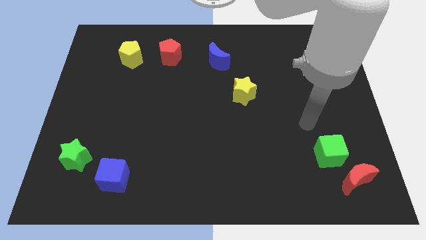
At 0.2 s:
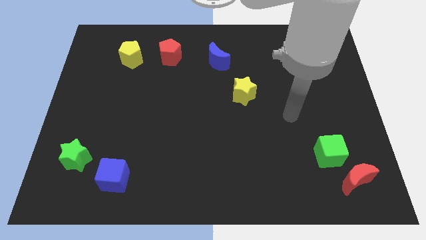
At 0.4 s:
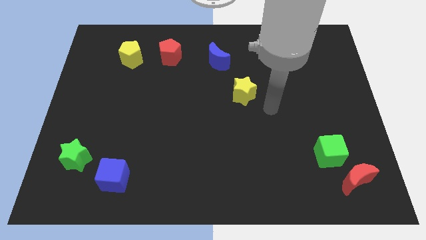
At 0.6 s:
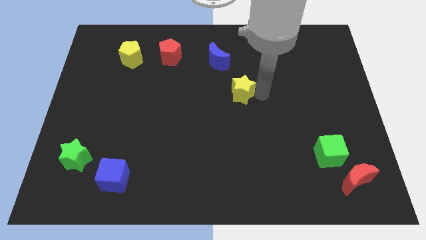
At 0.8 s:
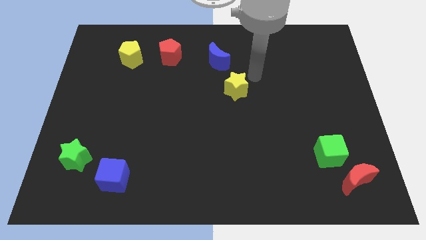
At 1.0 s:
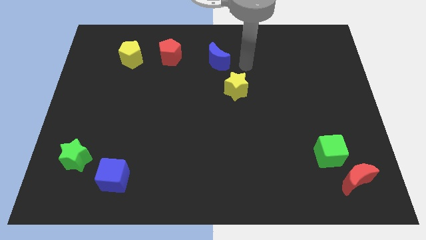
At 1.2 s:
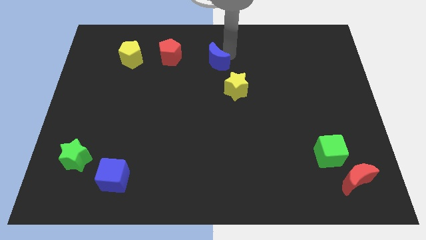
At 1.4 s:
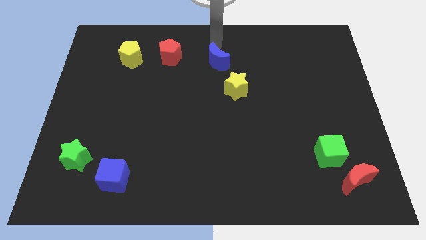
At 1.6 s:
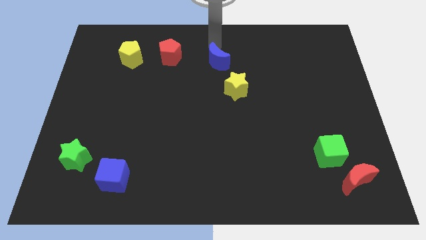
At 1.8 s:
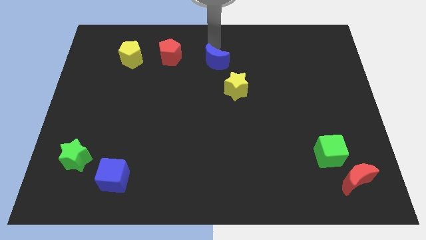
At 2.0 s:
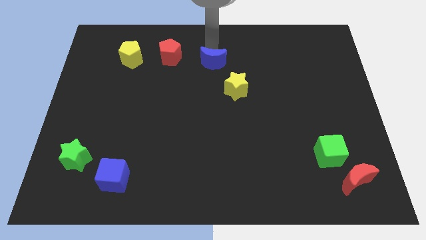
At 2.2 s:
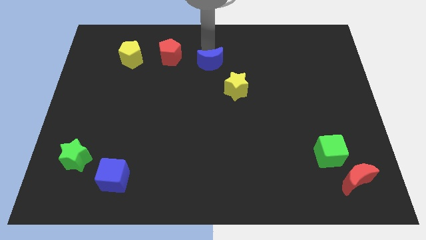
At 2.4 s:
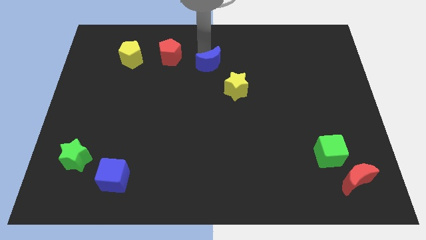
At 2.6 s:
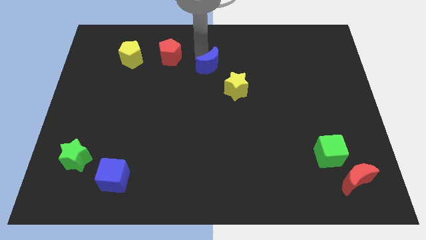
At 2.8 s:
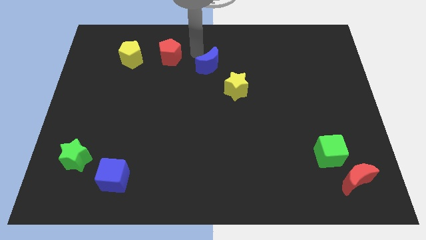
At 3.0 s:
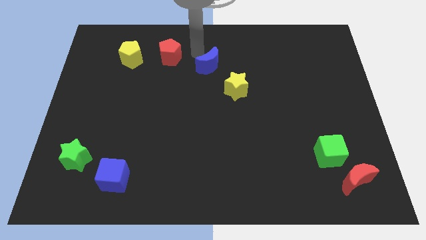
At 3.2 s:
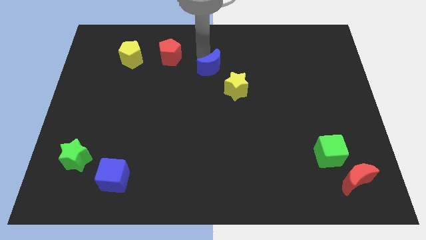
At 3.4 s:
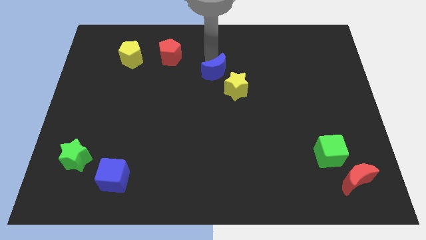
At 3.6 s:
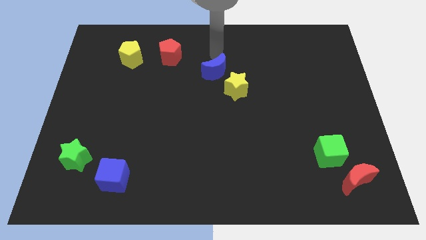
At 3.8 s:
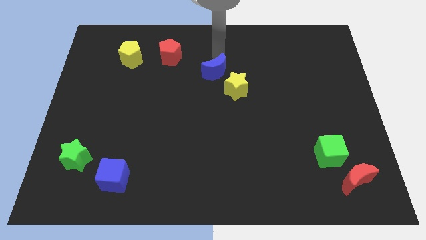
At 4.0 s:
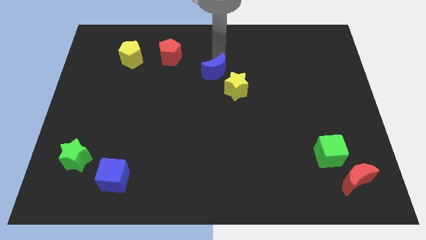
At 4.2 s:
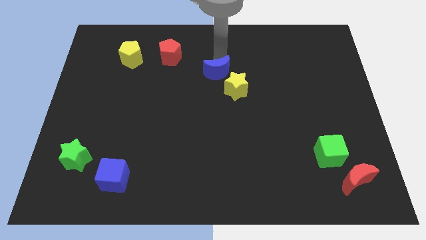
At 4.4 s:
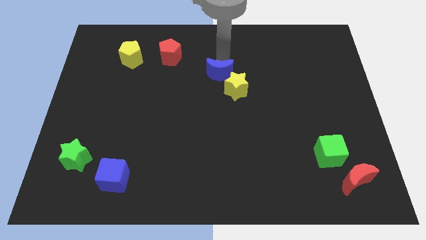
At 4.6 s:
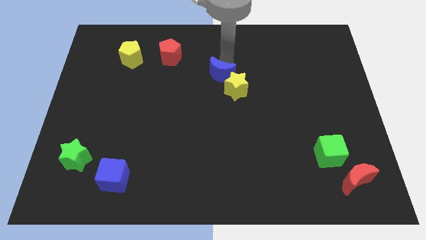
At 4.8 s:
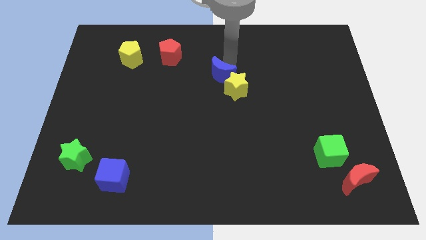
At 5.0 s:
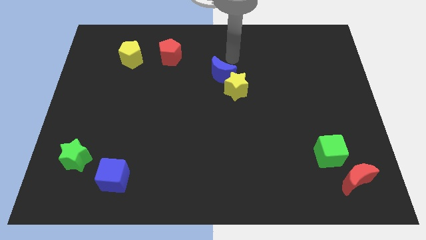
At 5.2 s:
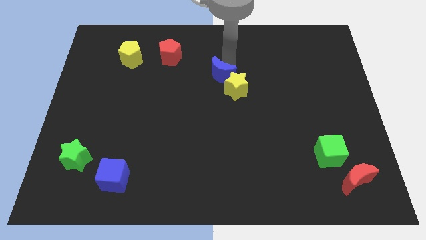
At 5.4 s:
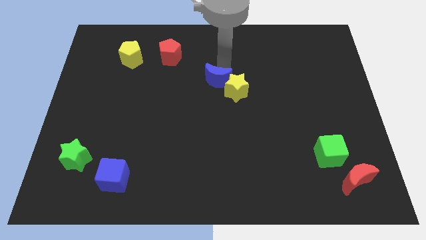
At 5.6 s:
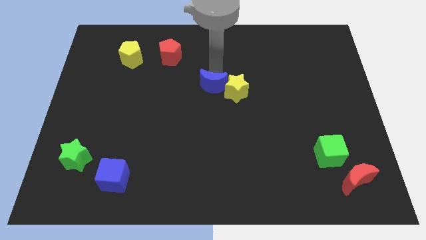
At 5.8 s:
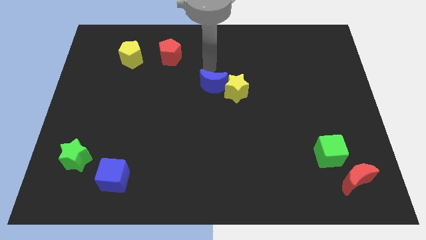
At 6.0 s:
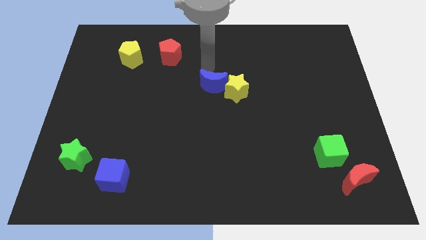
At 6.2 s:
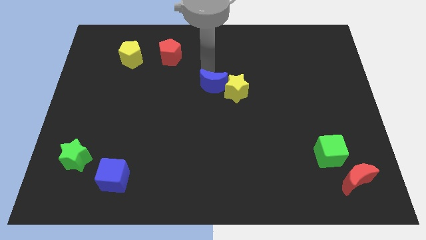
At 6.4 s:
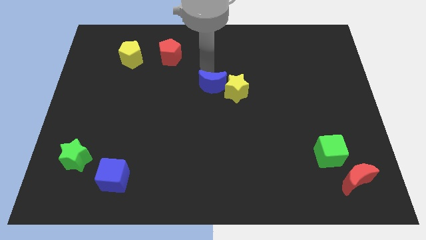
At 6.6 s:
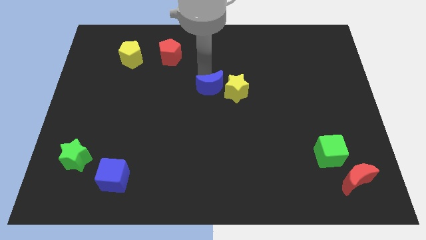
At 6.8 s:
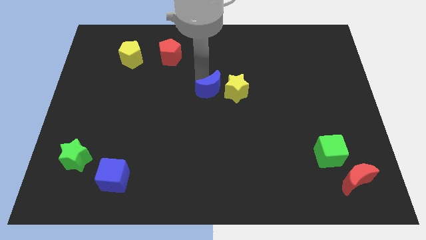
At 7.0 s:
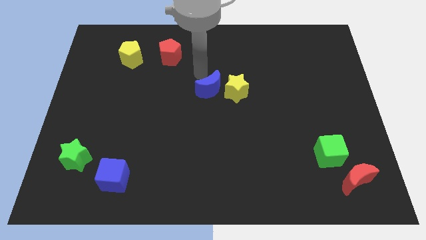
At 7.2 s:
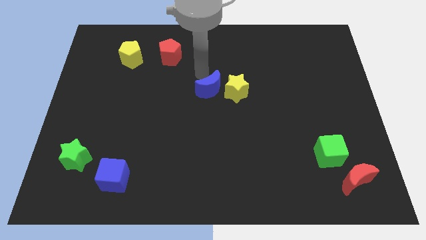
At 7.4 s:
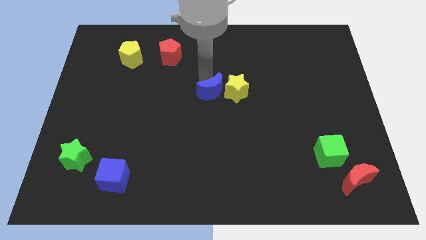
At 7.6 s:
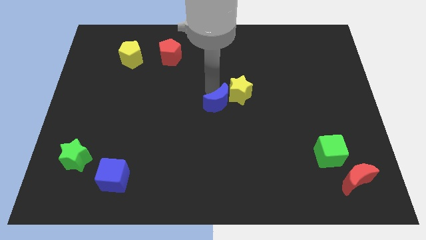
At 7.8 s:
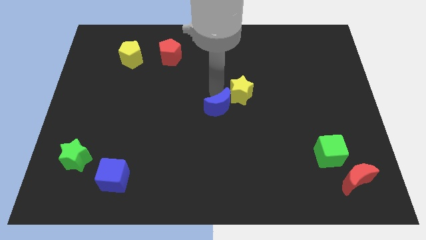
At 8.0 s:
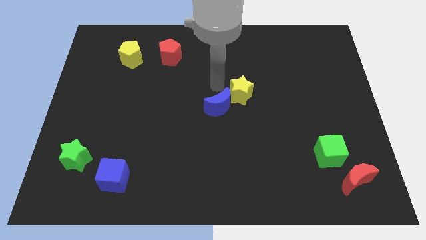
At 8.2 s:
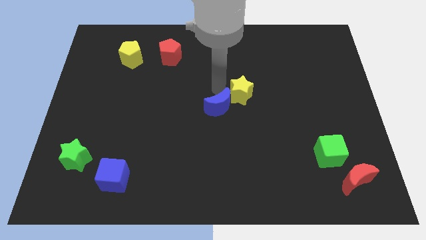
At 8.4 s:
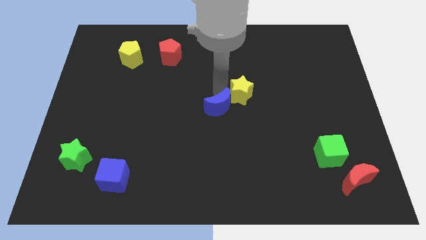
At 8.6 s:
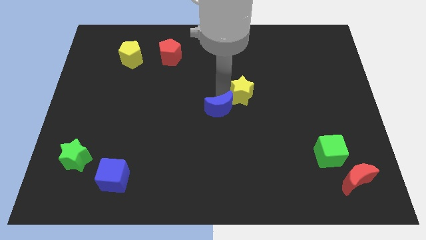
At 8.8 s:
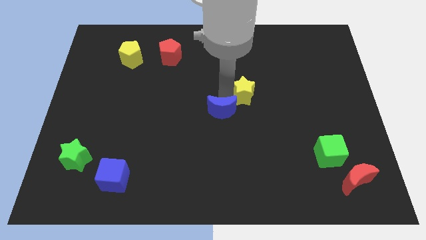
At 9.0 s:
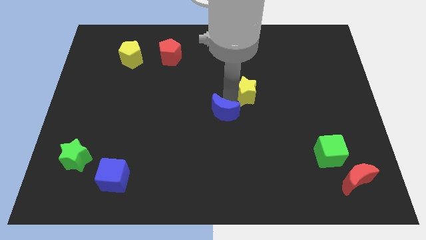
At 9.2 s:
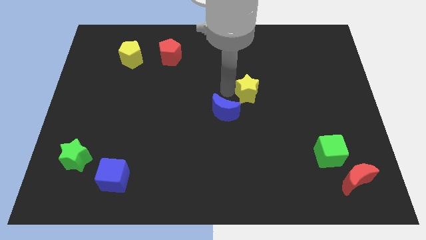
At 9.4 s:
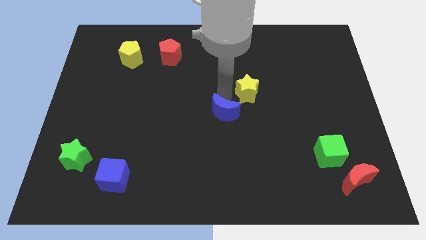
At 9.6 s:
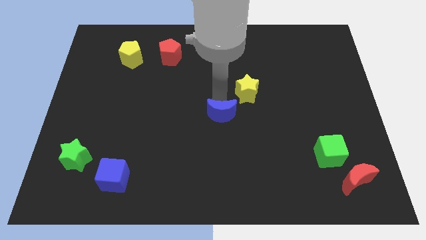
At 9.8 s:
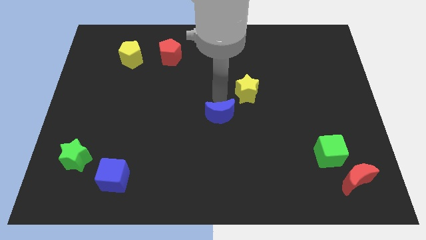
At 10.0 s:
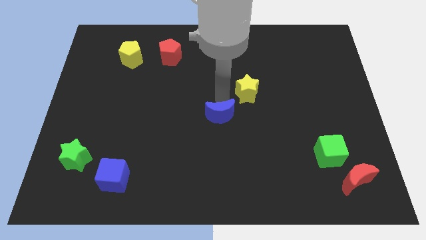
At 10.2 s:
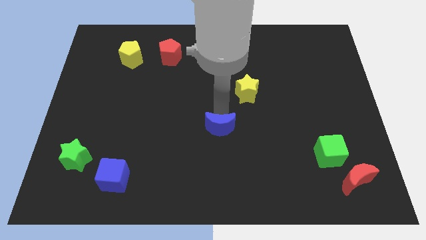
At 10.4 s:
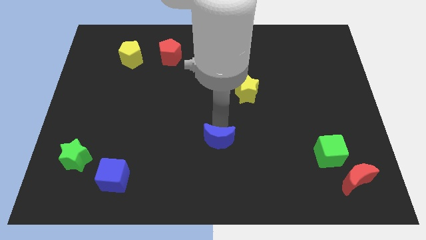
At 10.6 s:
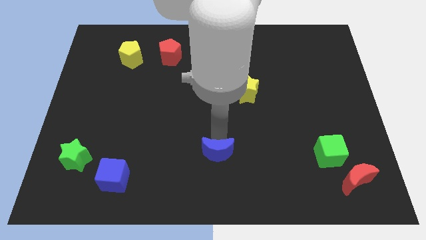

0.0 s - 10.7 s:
put the blue moon to the bottom

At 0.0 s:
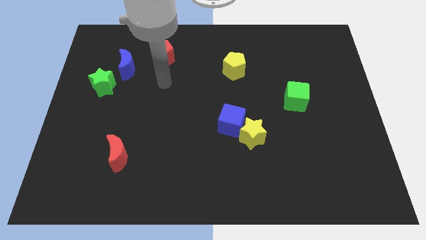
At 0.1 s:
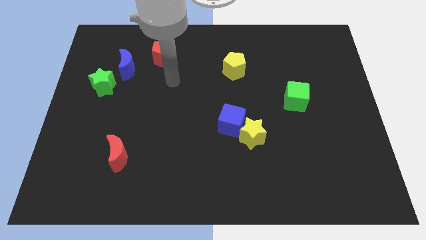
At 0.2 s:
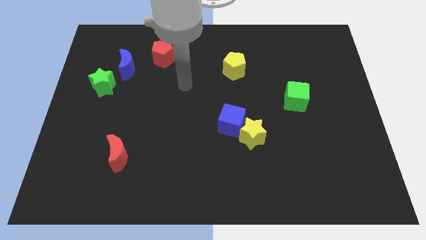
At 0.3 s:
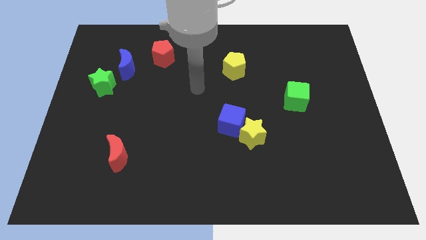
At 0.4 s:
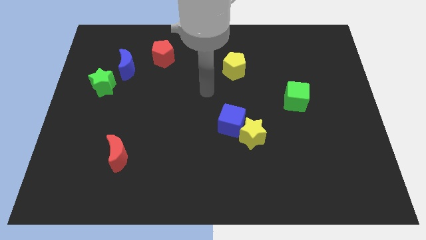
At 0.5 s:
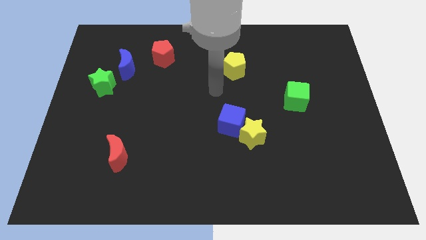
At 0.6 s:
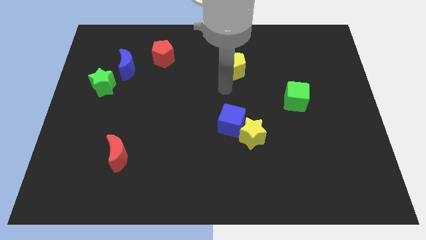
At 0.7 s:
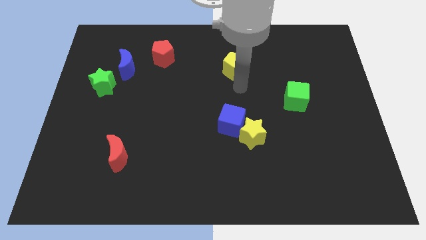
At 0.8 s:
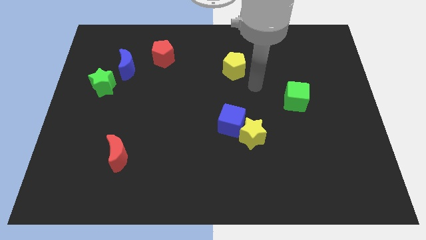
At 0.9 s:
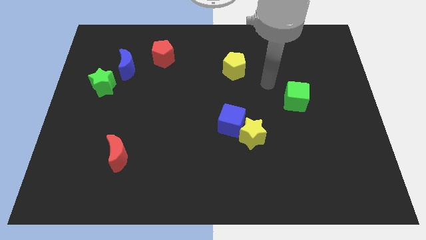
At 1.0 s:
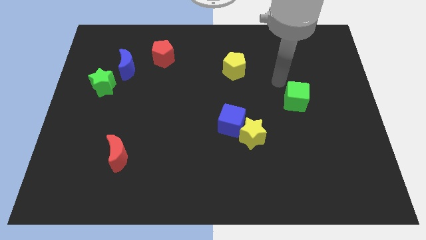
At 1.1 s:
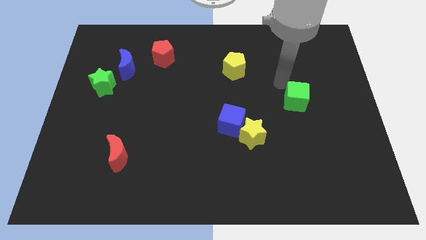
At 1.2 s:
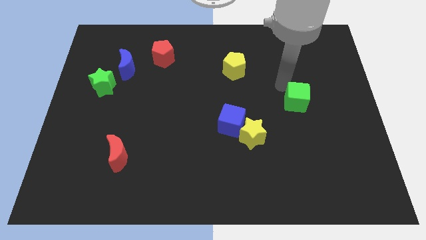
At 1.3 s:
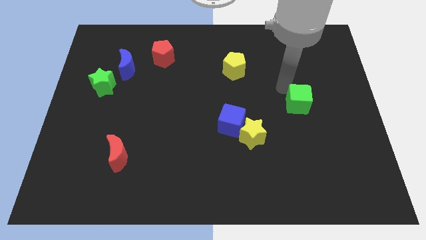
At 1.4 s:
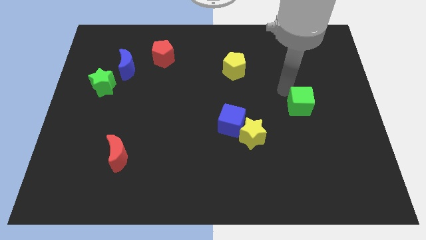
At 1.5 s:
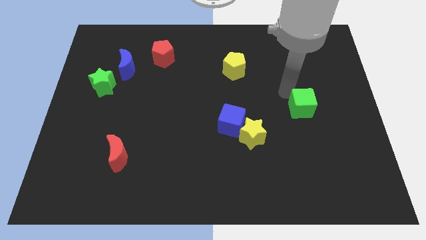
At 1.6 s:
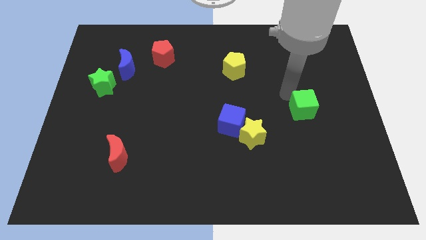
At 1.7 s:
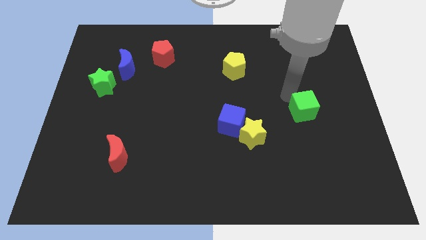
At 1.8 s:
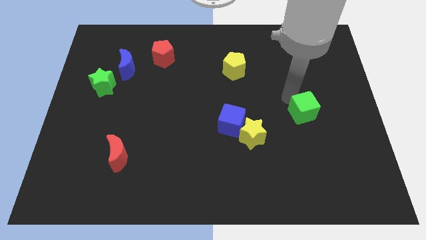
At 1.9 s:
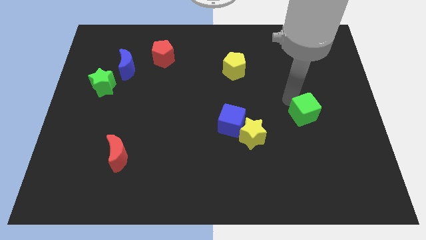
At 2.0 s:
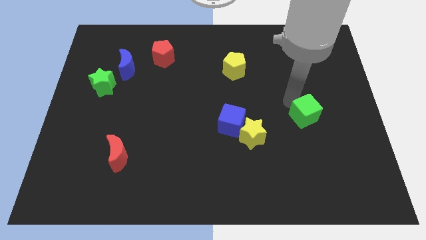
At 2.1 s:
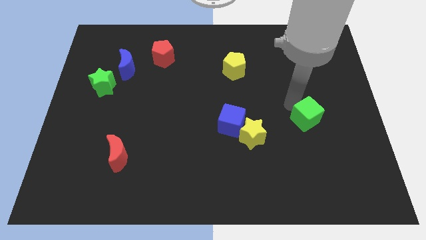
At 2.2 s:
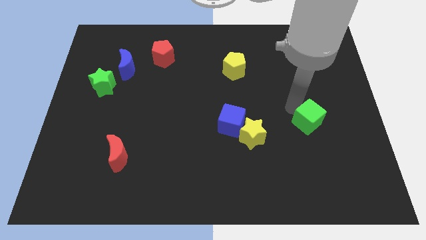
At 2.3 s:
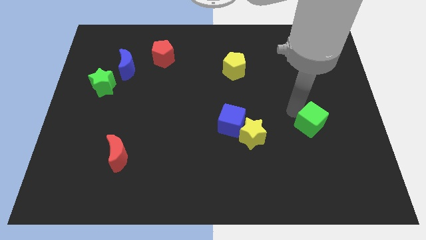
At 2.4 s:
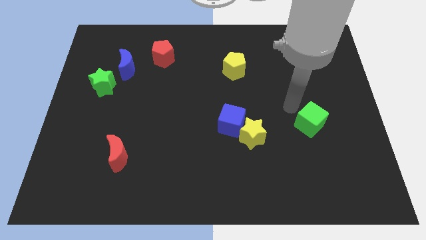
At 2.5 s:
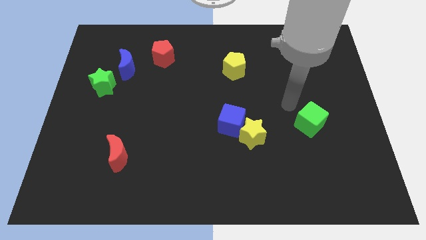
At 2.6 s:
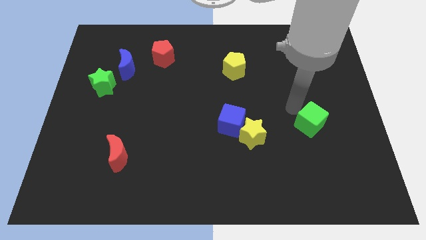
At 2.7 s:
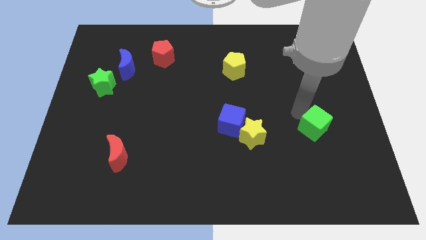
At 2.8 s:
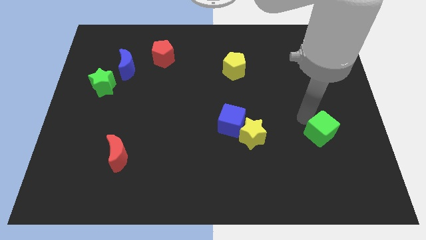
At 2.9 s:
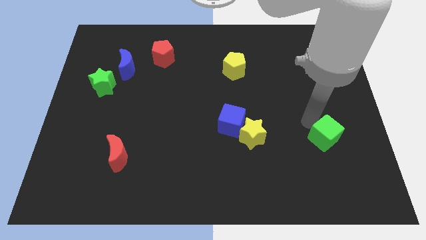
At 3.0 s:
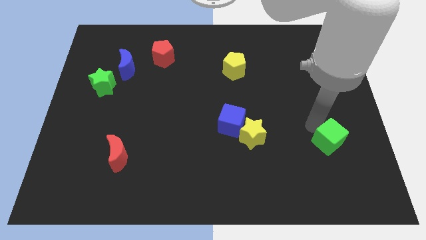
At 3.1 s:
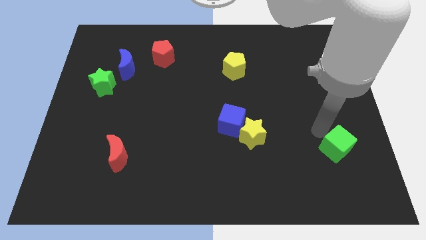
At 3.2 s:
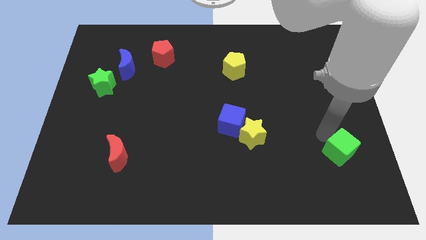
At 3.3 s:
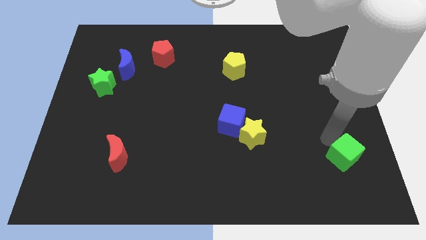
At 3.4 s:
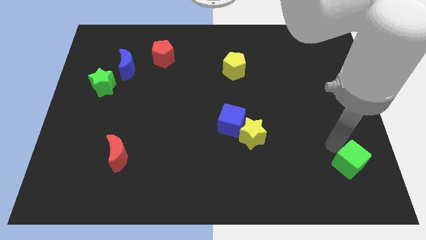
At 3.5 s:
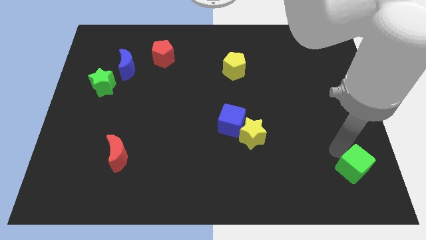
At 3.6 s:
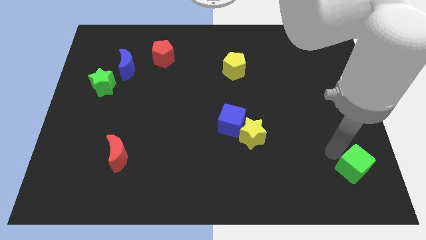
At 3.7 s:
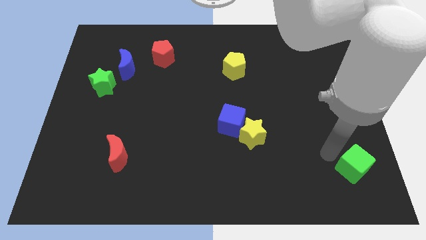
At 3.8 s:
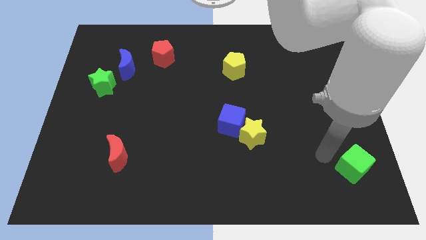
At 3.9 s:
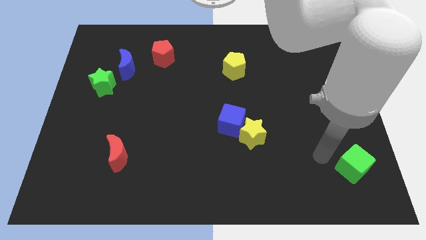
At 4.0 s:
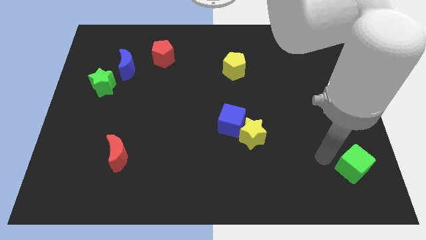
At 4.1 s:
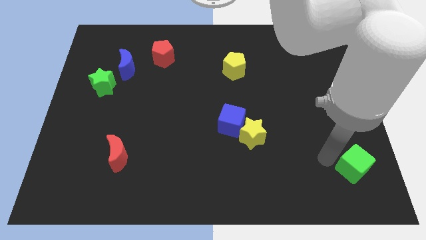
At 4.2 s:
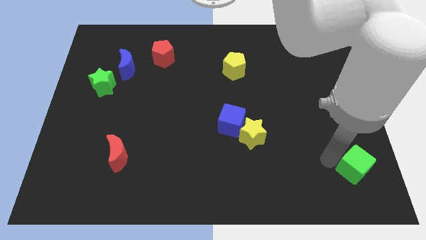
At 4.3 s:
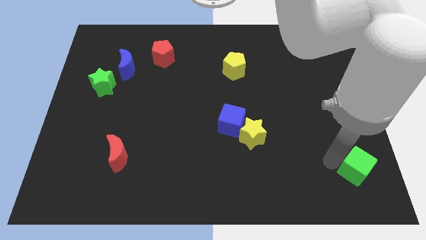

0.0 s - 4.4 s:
move the green cube to the lower right corner
